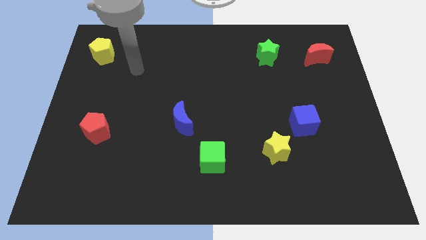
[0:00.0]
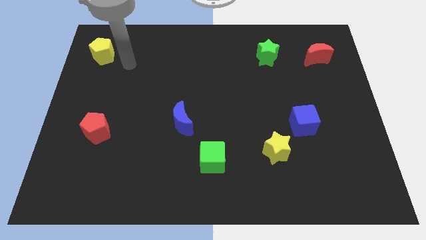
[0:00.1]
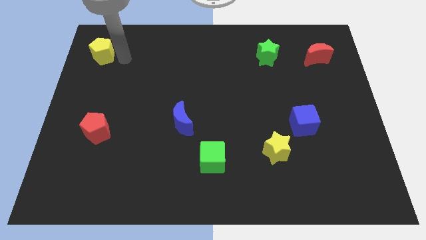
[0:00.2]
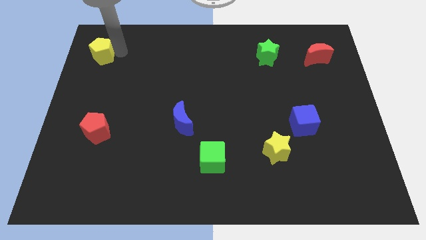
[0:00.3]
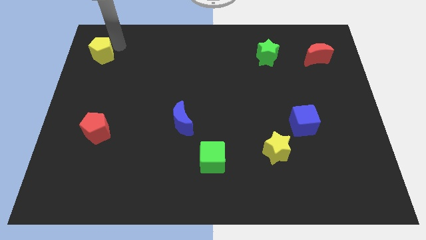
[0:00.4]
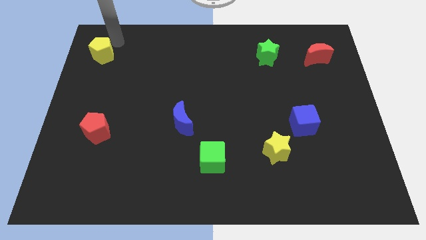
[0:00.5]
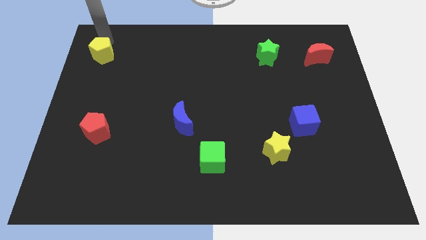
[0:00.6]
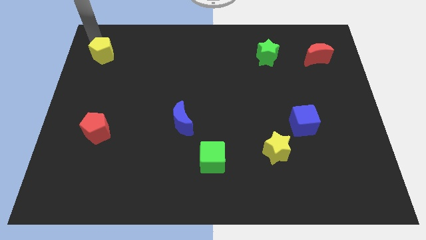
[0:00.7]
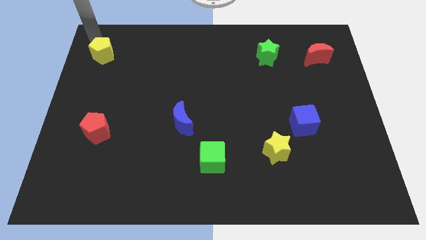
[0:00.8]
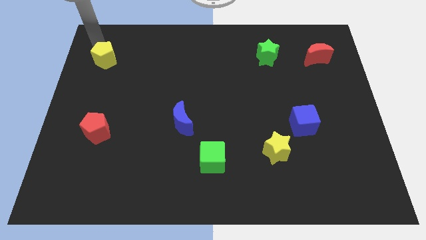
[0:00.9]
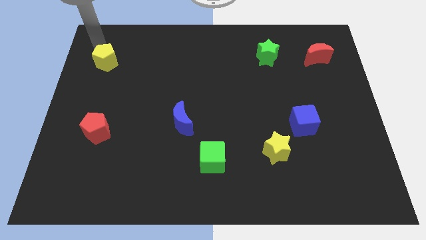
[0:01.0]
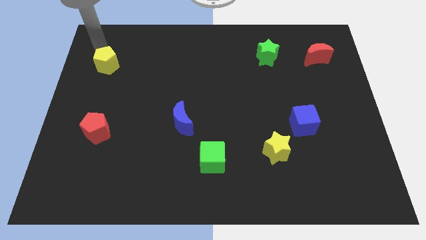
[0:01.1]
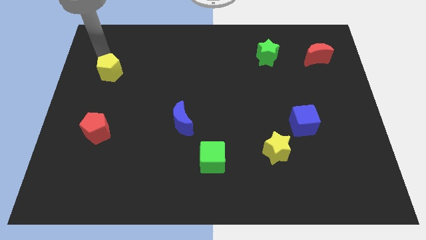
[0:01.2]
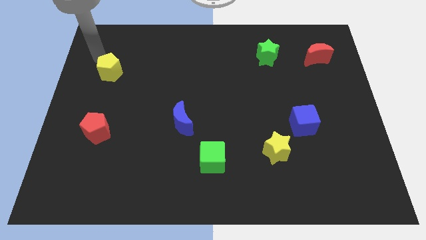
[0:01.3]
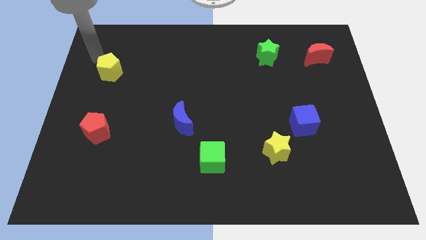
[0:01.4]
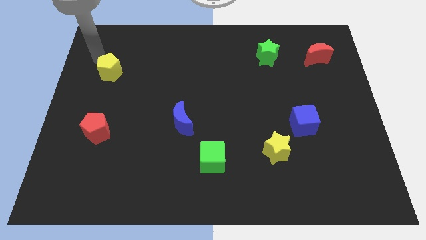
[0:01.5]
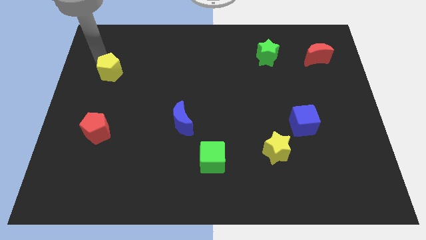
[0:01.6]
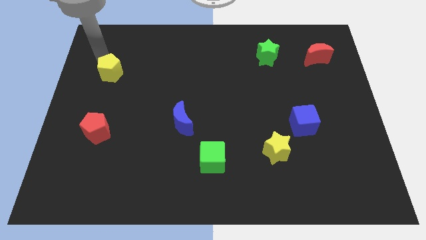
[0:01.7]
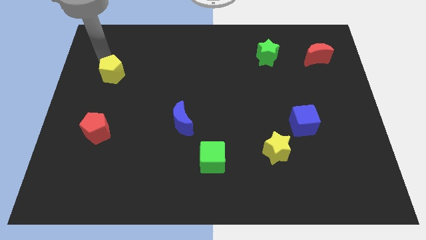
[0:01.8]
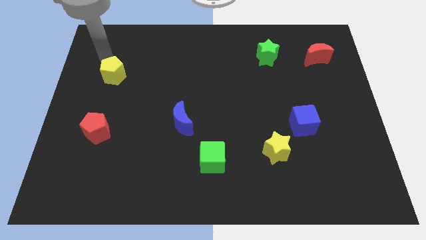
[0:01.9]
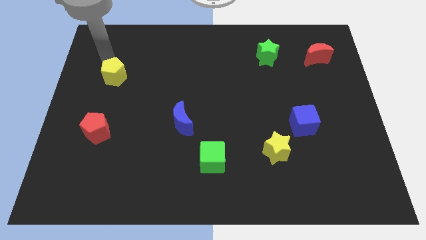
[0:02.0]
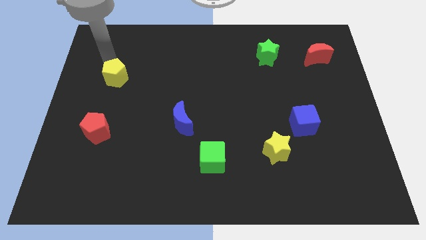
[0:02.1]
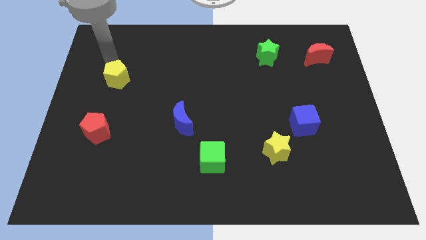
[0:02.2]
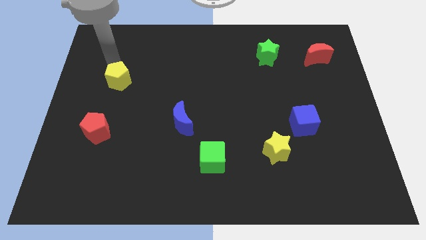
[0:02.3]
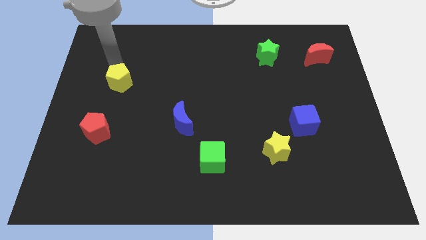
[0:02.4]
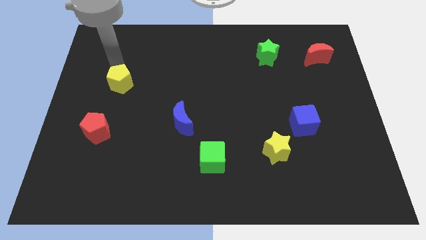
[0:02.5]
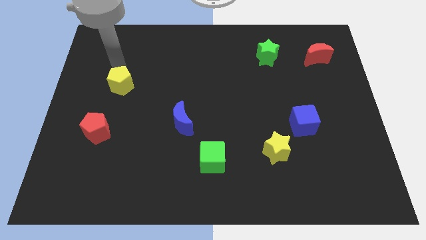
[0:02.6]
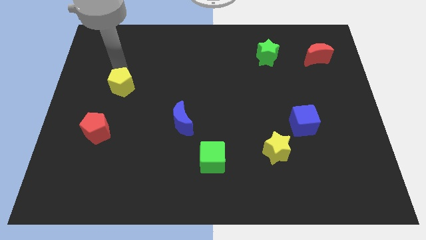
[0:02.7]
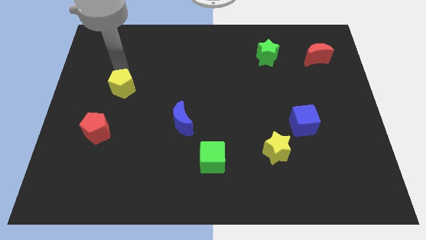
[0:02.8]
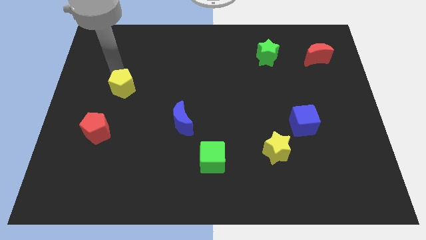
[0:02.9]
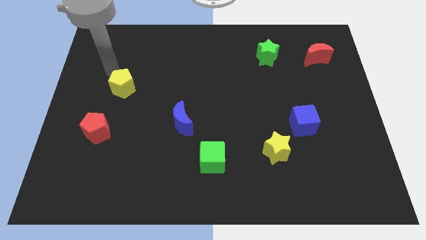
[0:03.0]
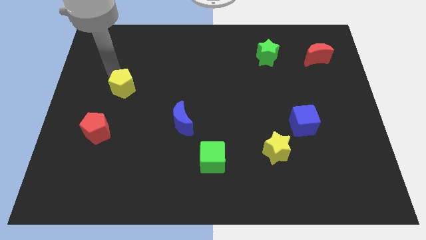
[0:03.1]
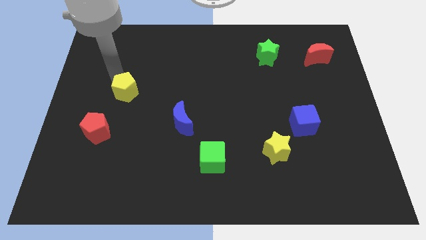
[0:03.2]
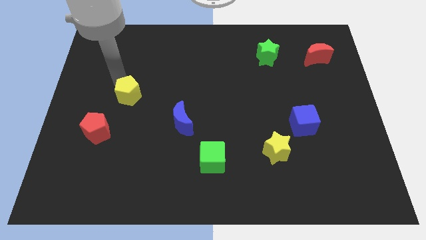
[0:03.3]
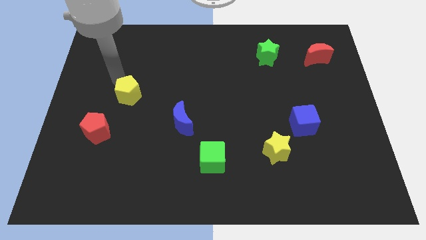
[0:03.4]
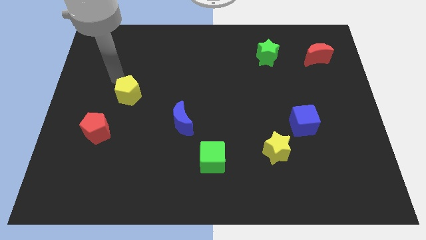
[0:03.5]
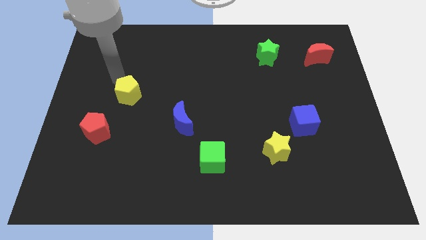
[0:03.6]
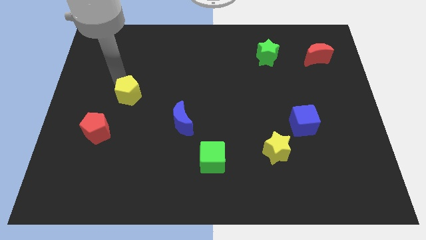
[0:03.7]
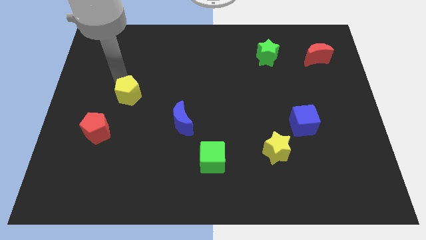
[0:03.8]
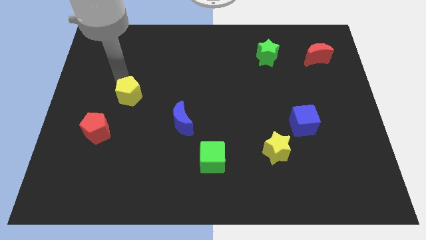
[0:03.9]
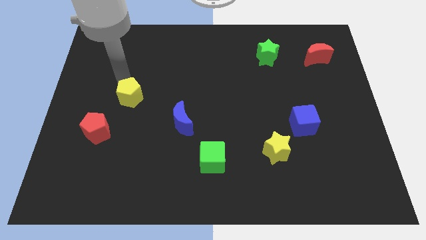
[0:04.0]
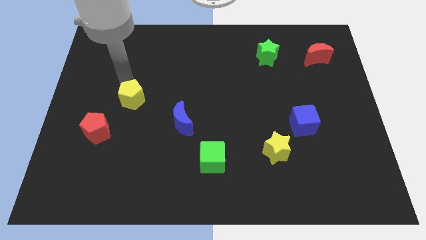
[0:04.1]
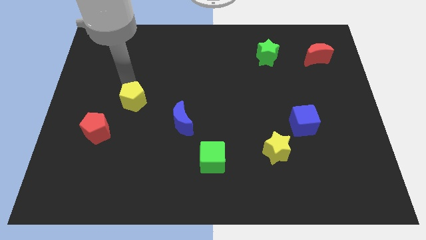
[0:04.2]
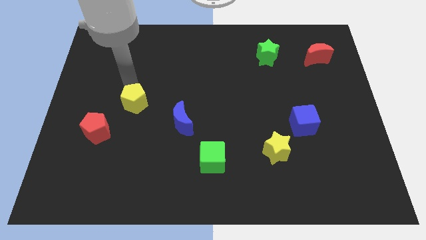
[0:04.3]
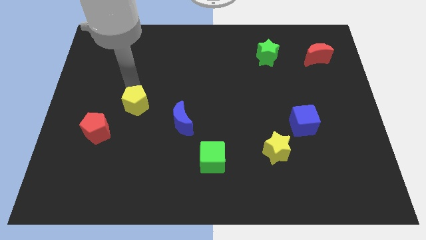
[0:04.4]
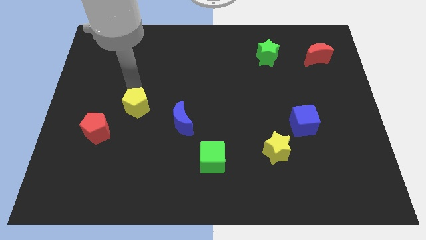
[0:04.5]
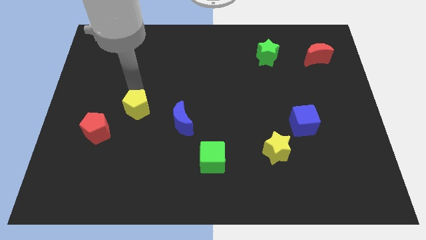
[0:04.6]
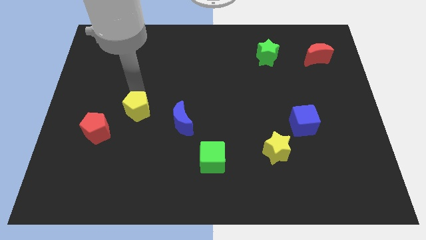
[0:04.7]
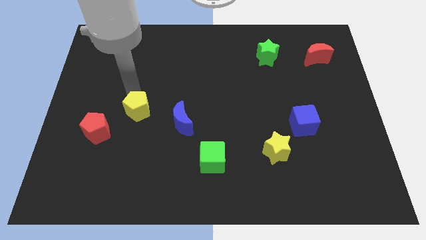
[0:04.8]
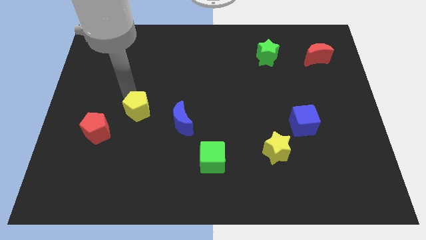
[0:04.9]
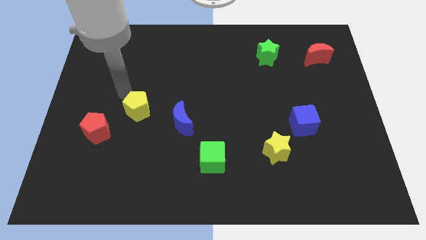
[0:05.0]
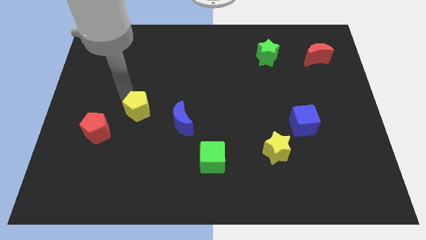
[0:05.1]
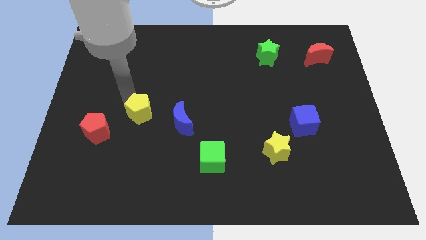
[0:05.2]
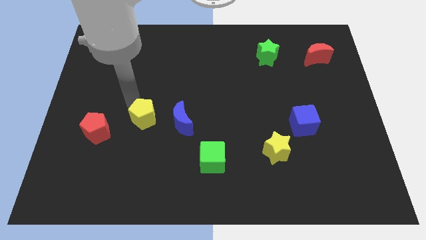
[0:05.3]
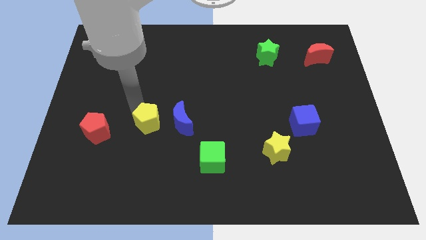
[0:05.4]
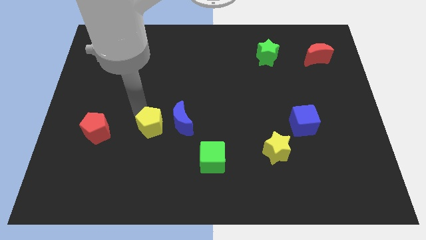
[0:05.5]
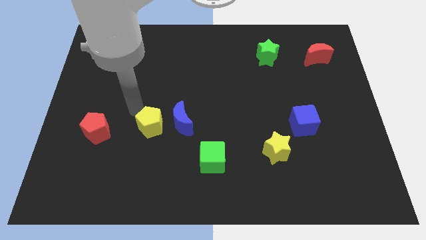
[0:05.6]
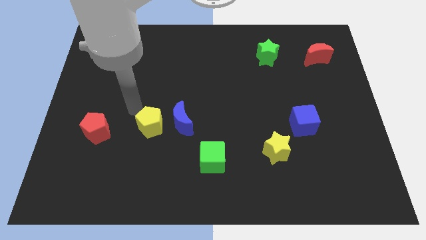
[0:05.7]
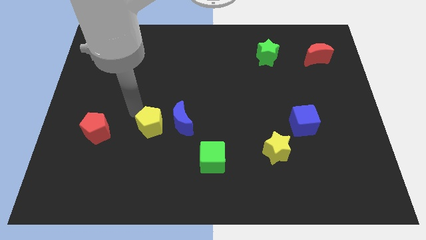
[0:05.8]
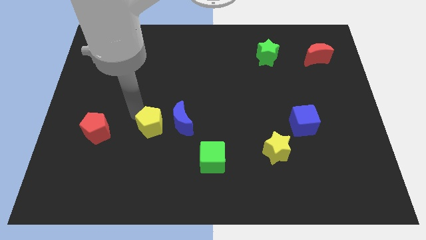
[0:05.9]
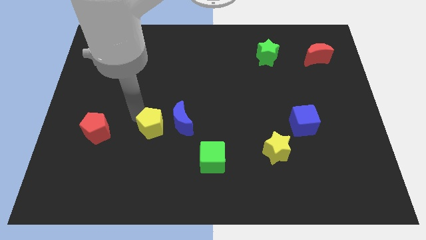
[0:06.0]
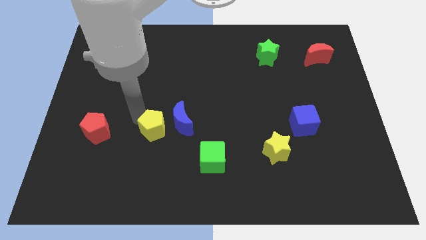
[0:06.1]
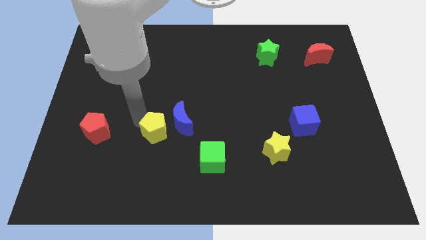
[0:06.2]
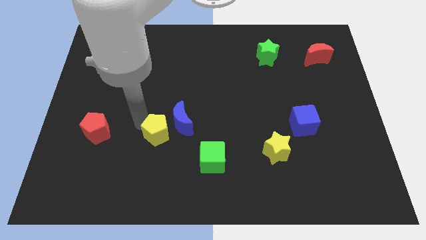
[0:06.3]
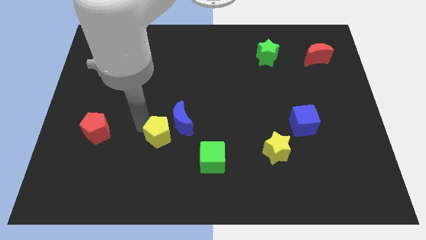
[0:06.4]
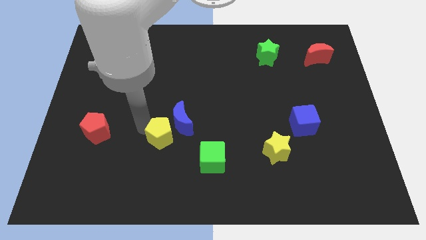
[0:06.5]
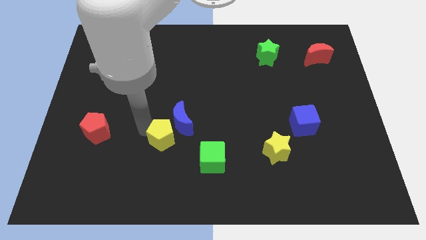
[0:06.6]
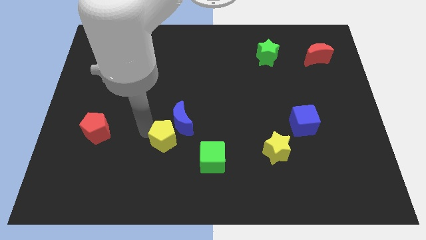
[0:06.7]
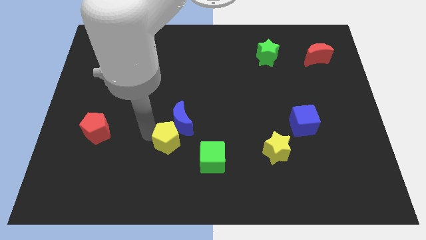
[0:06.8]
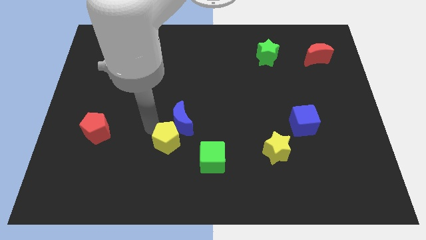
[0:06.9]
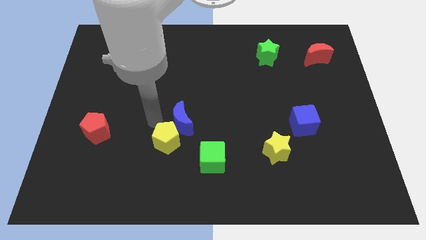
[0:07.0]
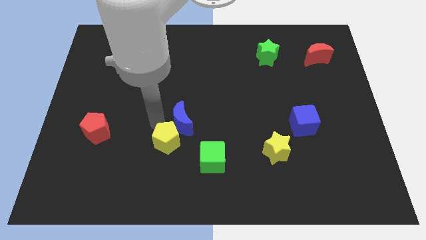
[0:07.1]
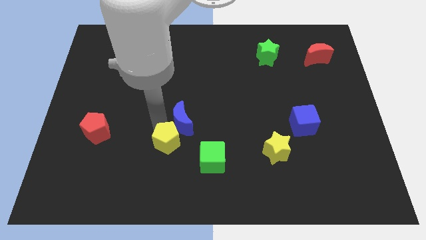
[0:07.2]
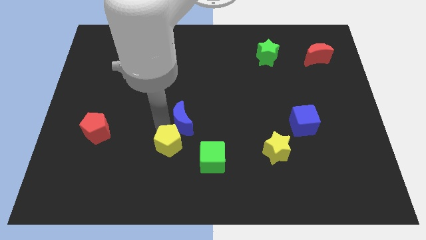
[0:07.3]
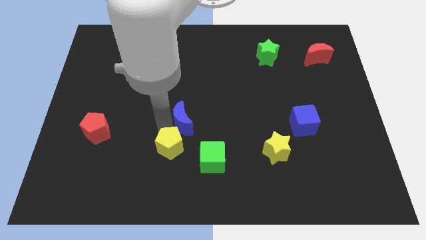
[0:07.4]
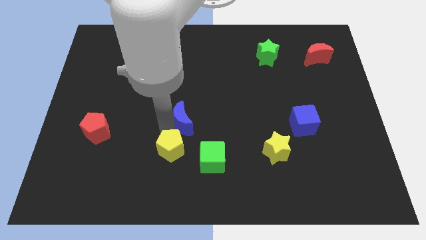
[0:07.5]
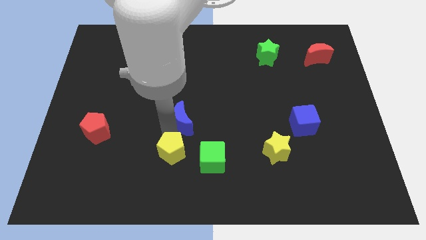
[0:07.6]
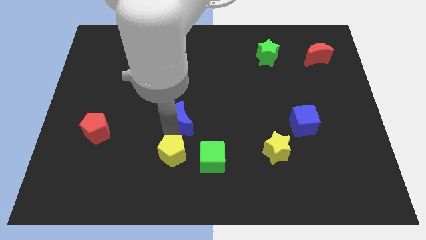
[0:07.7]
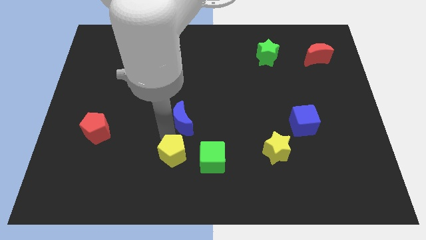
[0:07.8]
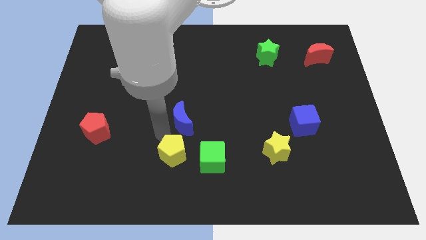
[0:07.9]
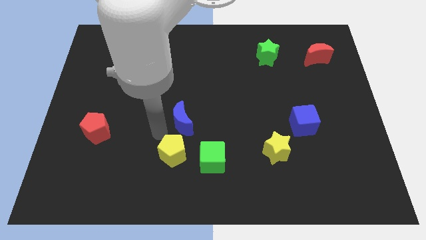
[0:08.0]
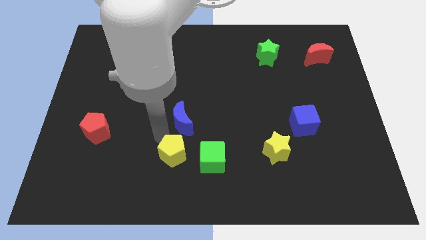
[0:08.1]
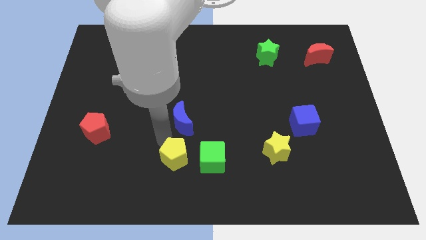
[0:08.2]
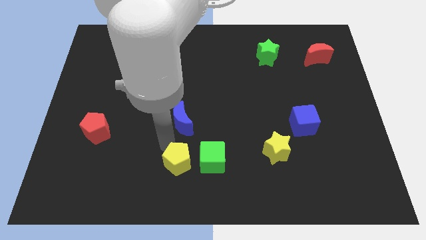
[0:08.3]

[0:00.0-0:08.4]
put the yellow pentagon to the bottom
